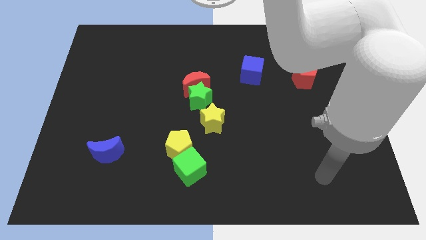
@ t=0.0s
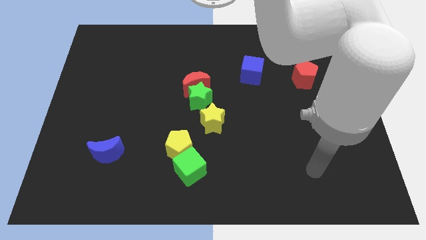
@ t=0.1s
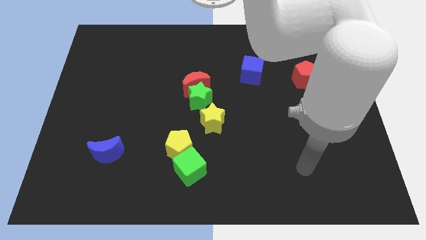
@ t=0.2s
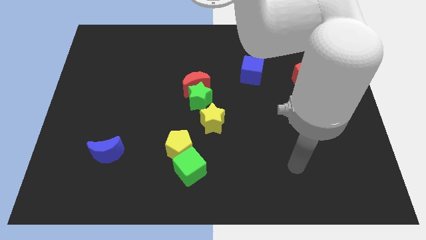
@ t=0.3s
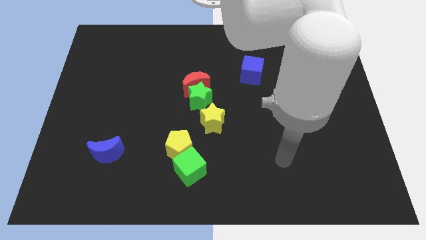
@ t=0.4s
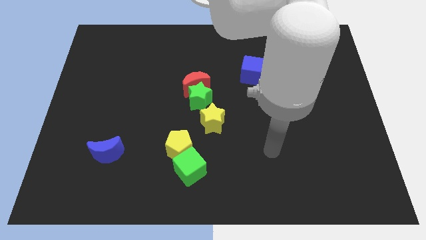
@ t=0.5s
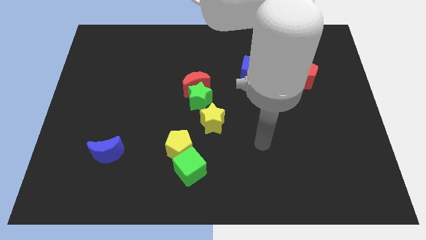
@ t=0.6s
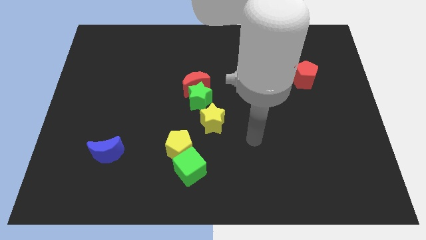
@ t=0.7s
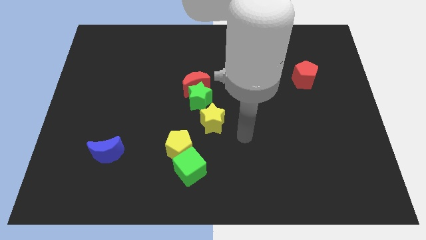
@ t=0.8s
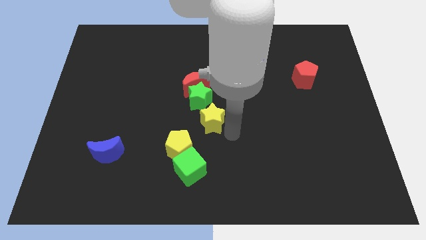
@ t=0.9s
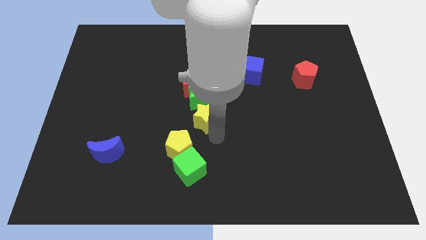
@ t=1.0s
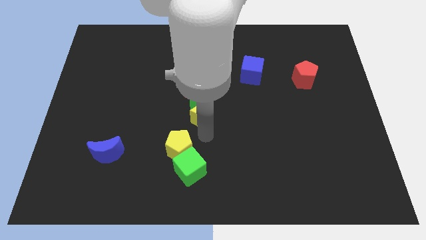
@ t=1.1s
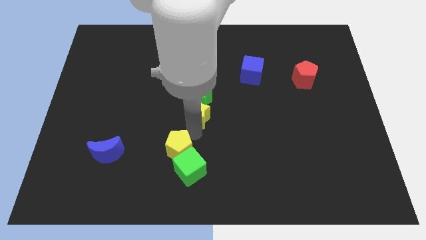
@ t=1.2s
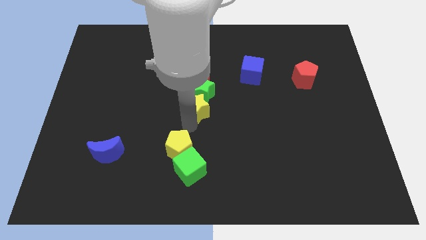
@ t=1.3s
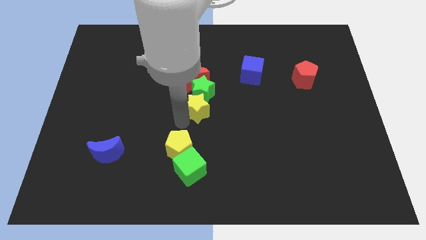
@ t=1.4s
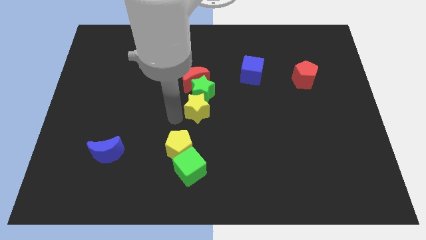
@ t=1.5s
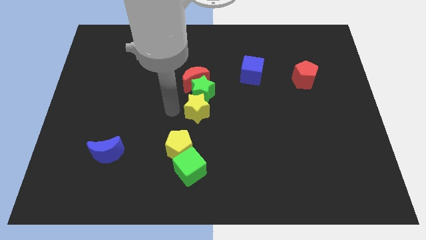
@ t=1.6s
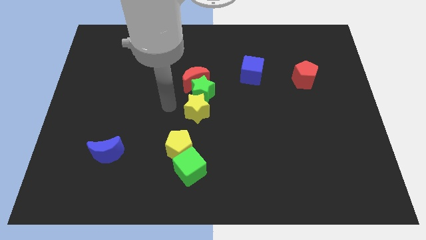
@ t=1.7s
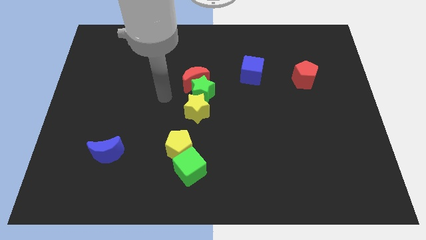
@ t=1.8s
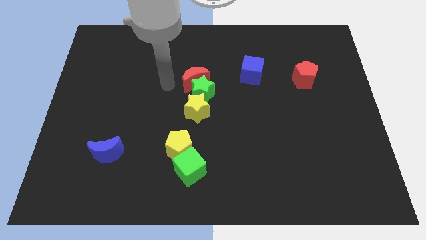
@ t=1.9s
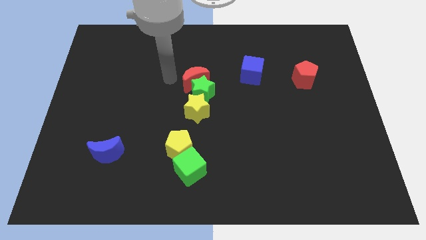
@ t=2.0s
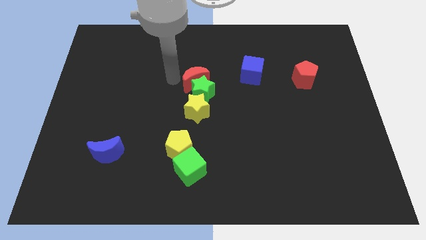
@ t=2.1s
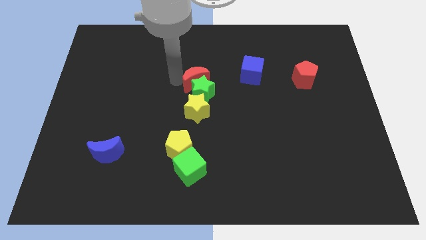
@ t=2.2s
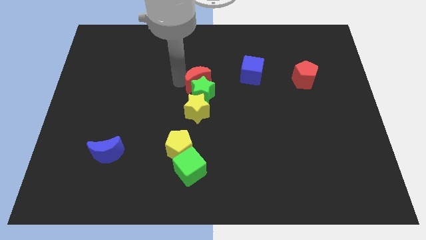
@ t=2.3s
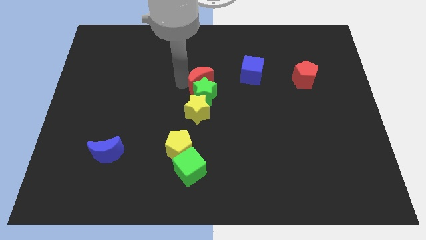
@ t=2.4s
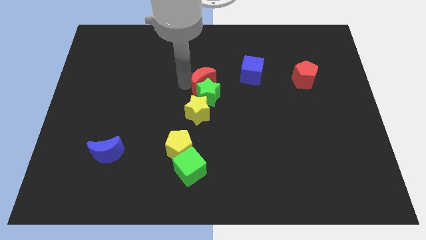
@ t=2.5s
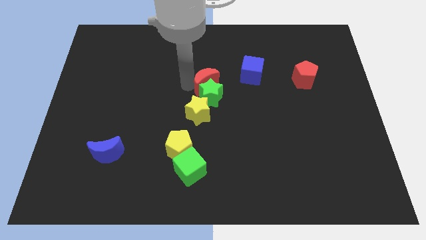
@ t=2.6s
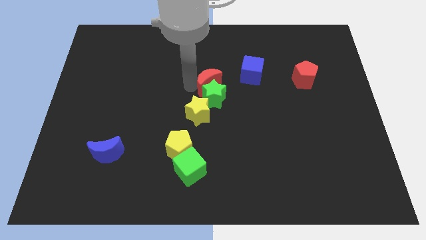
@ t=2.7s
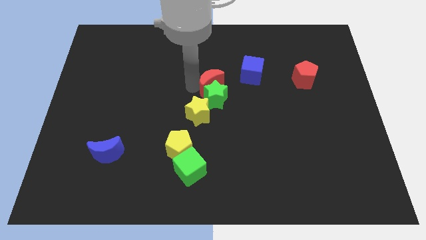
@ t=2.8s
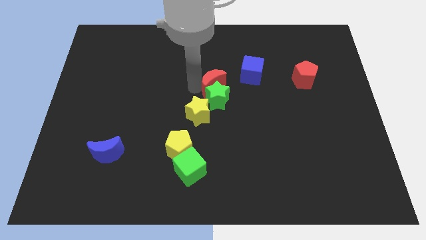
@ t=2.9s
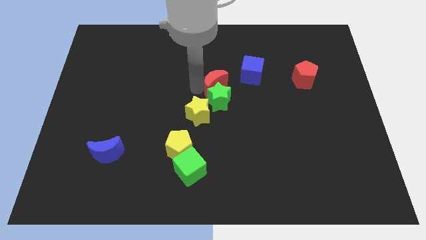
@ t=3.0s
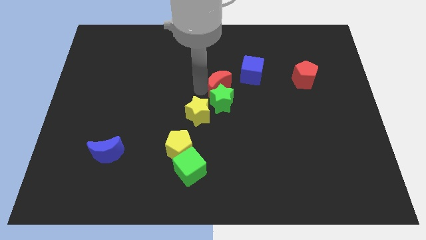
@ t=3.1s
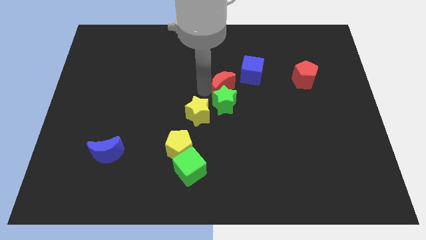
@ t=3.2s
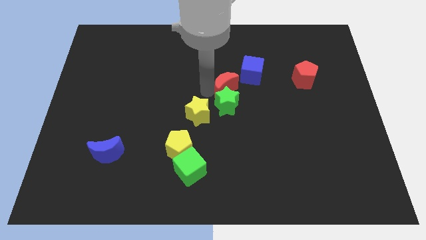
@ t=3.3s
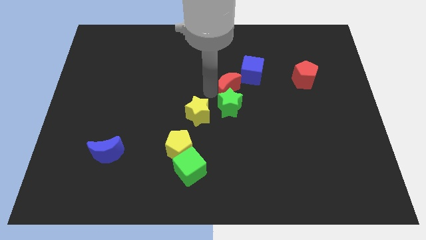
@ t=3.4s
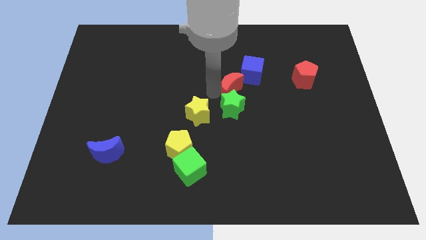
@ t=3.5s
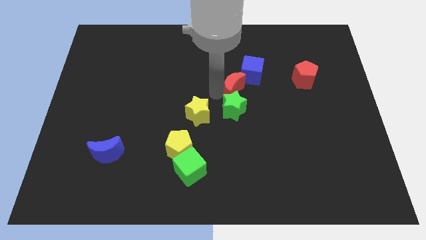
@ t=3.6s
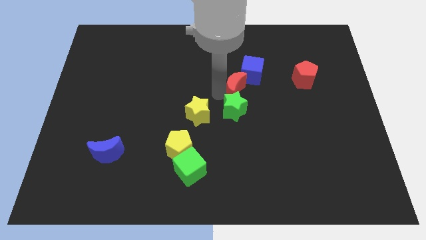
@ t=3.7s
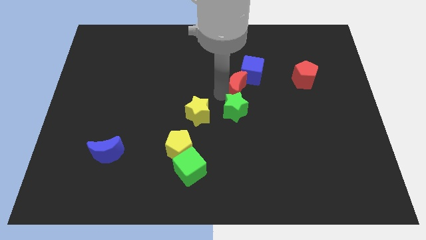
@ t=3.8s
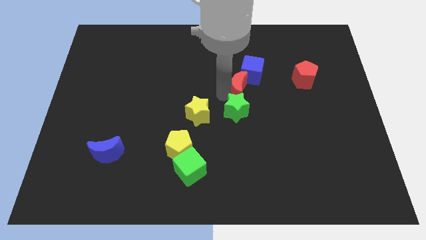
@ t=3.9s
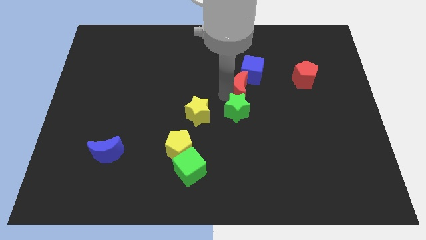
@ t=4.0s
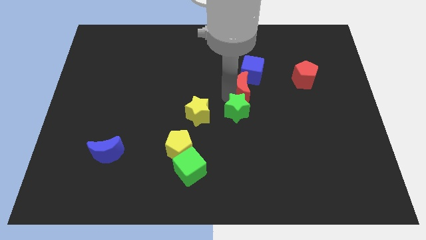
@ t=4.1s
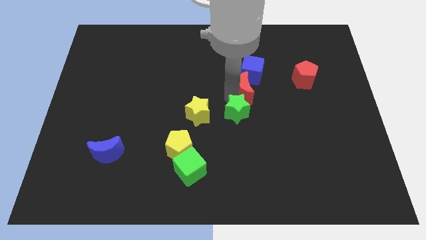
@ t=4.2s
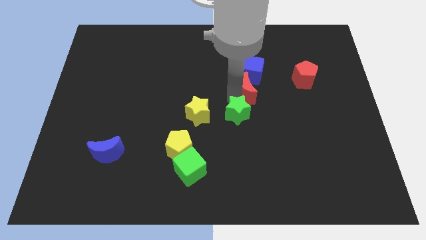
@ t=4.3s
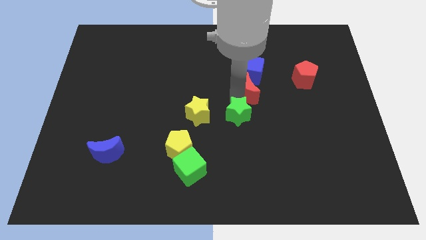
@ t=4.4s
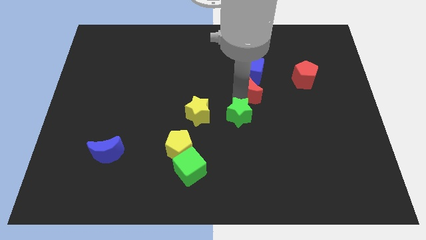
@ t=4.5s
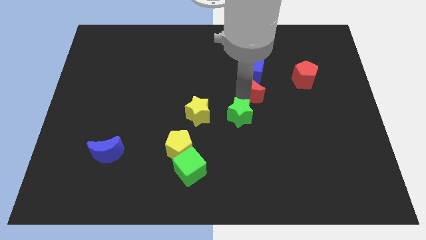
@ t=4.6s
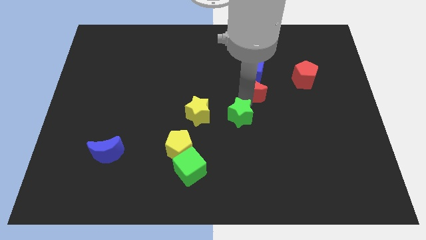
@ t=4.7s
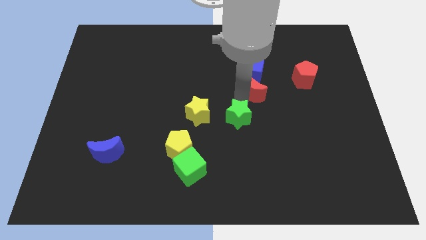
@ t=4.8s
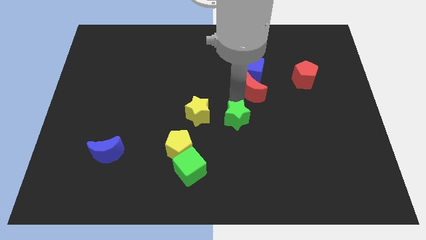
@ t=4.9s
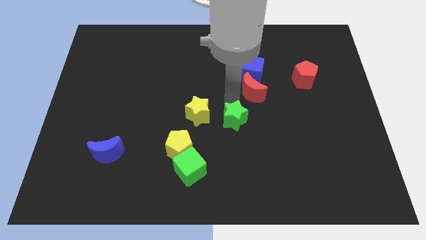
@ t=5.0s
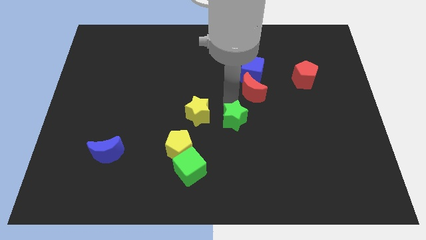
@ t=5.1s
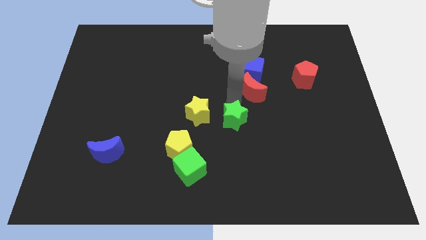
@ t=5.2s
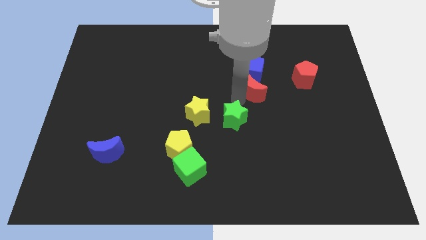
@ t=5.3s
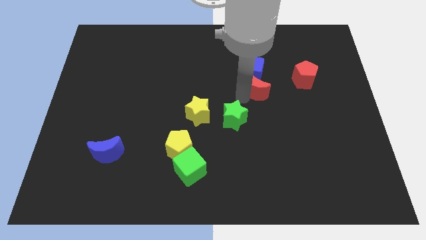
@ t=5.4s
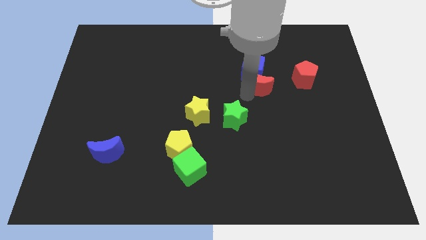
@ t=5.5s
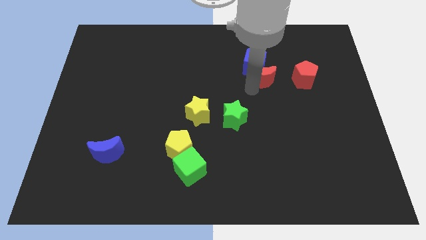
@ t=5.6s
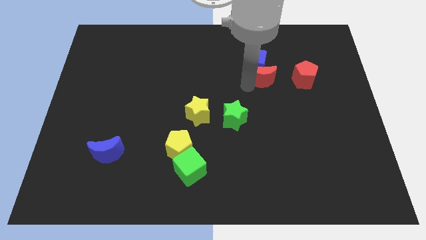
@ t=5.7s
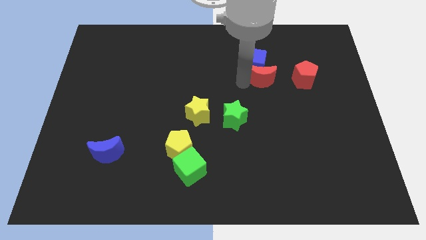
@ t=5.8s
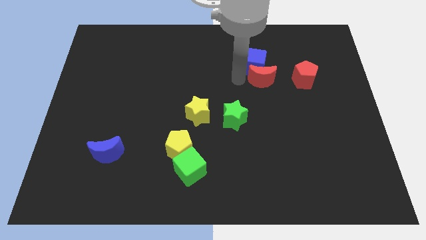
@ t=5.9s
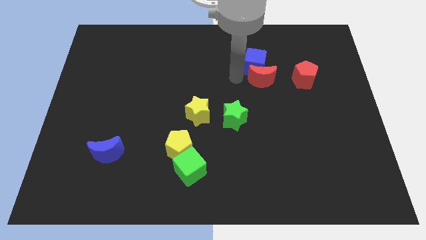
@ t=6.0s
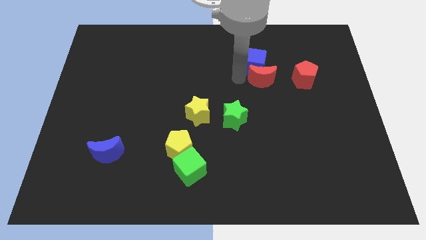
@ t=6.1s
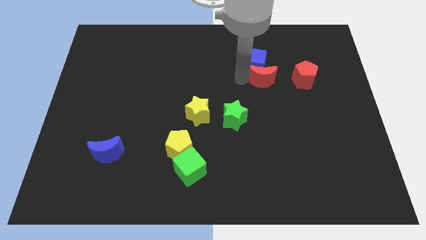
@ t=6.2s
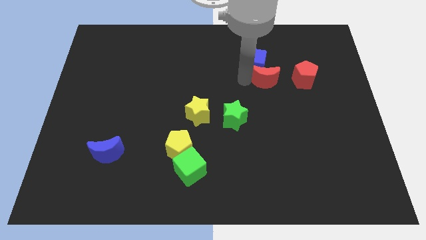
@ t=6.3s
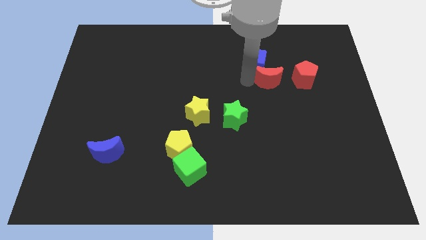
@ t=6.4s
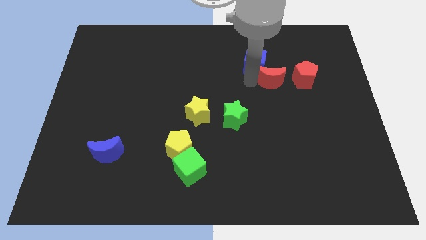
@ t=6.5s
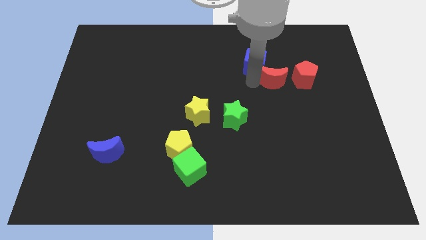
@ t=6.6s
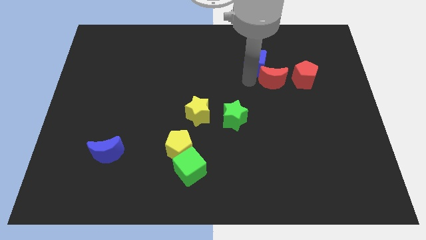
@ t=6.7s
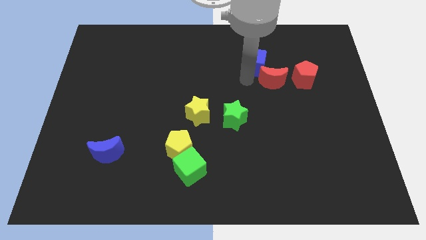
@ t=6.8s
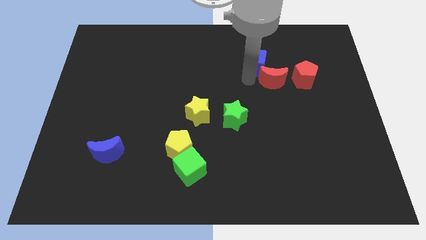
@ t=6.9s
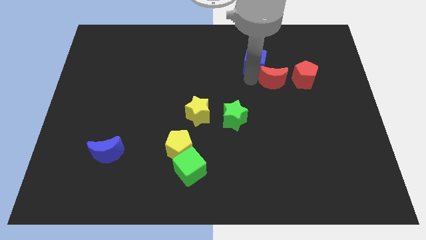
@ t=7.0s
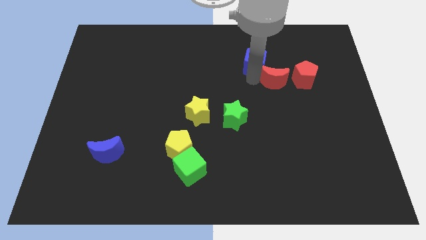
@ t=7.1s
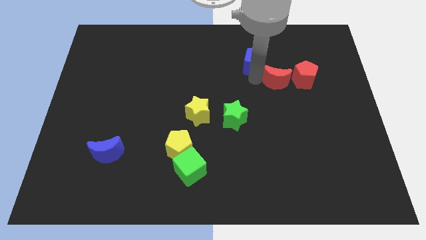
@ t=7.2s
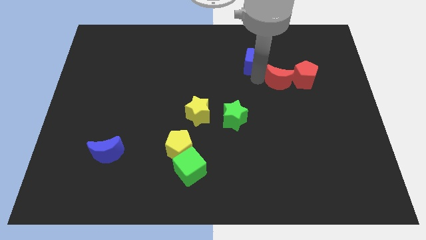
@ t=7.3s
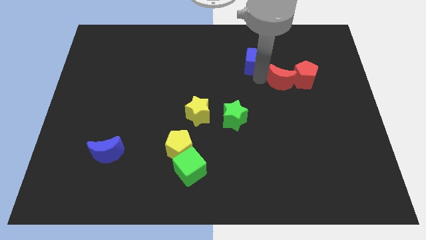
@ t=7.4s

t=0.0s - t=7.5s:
move the red moon towards the red pentagon
